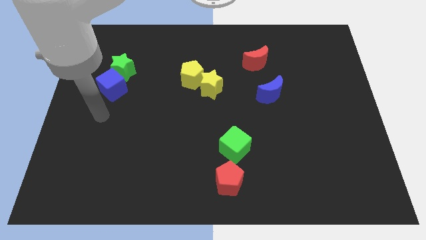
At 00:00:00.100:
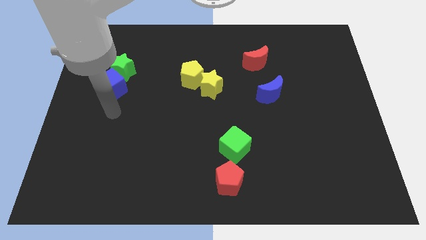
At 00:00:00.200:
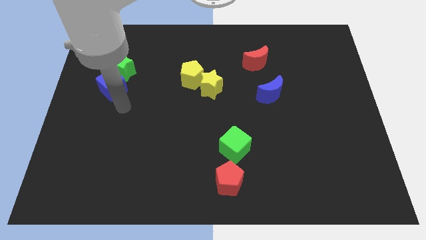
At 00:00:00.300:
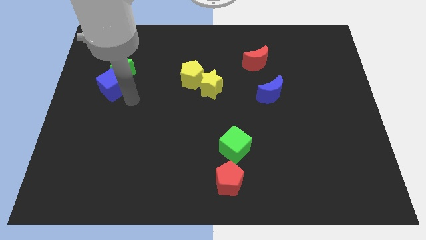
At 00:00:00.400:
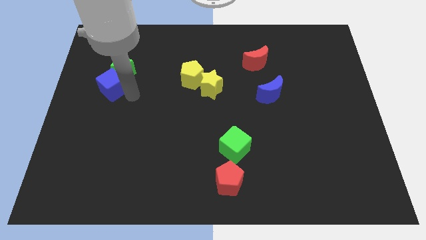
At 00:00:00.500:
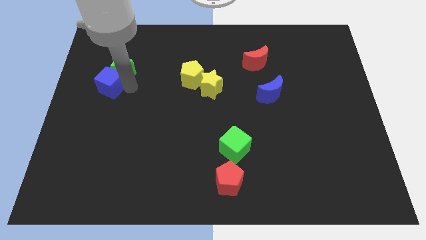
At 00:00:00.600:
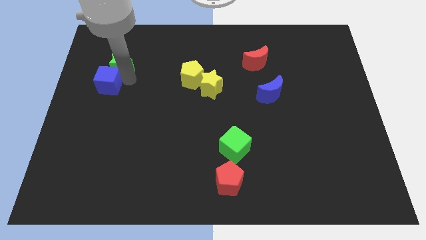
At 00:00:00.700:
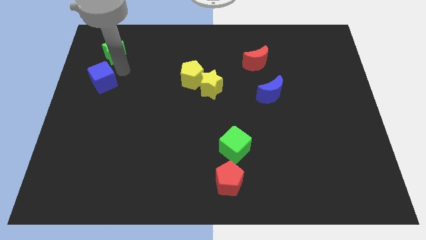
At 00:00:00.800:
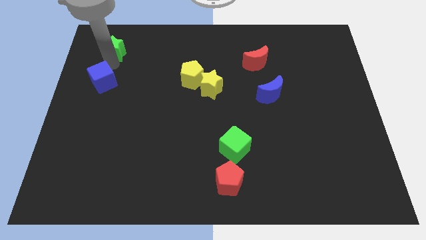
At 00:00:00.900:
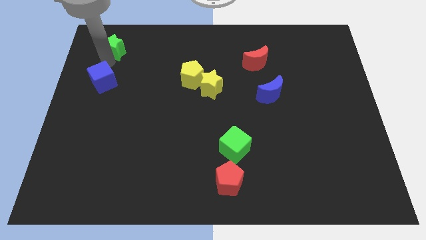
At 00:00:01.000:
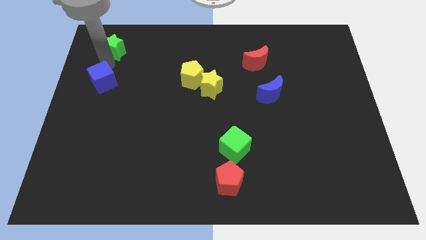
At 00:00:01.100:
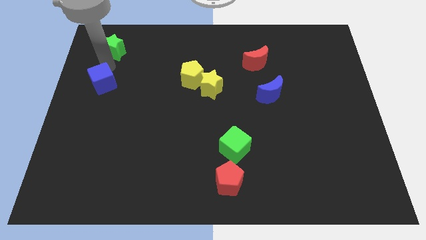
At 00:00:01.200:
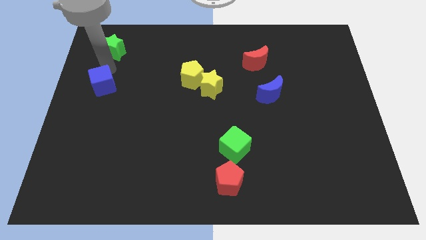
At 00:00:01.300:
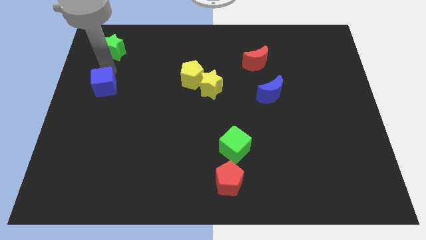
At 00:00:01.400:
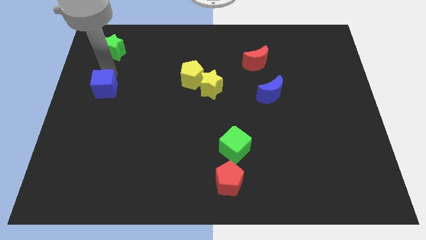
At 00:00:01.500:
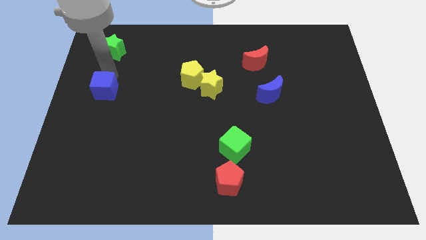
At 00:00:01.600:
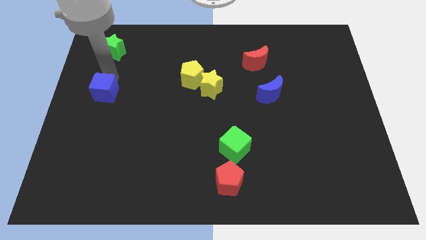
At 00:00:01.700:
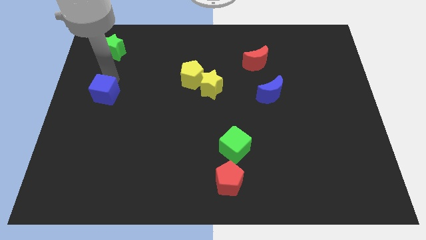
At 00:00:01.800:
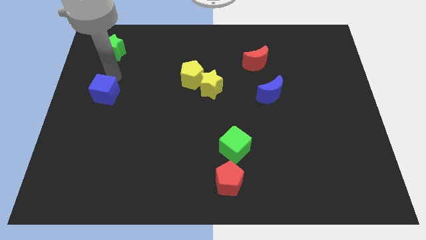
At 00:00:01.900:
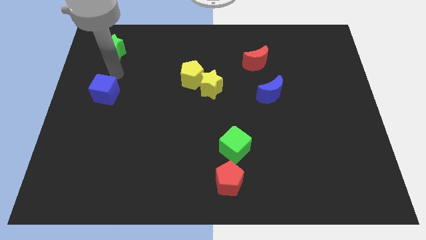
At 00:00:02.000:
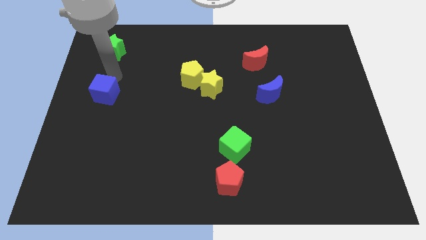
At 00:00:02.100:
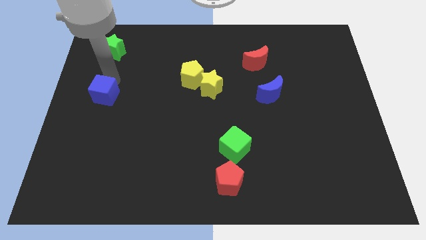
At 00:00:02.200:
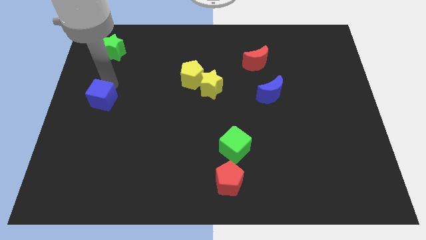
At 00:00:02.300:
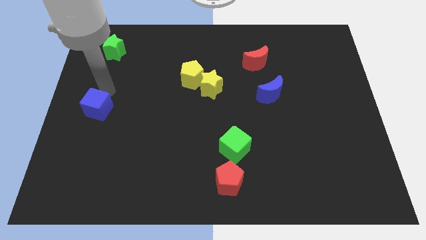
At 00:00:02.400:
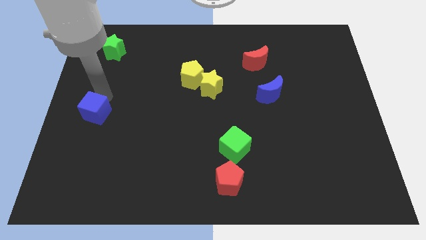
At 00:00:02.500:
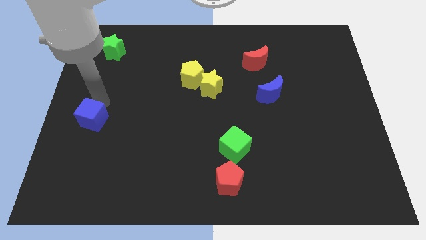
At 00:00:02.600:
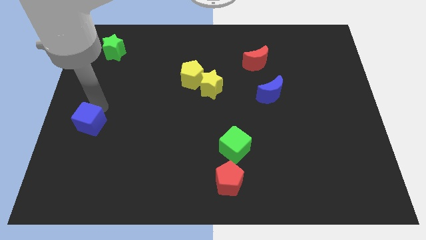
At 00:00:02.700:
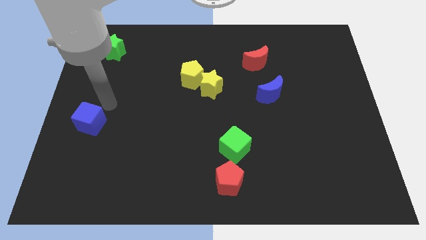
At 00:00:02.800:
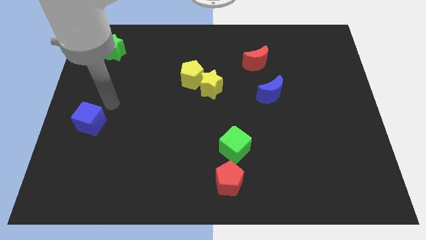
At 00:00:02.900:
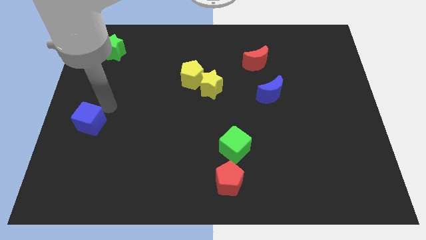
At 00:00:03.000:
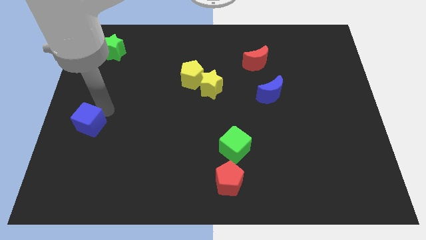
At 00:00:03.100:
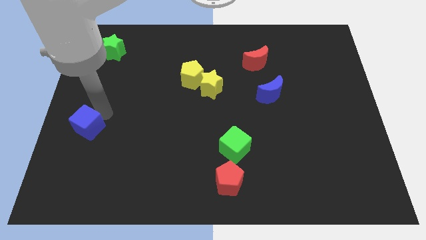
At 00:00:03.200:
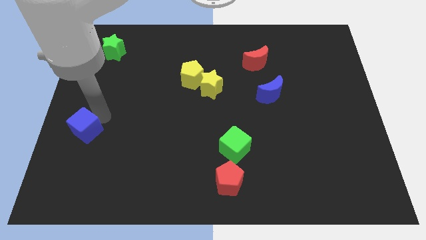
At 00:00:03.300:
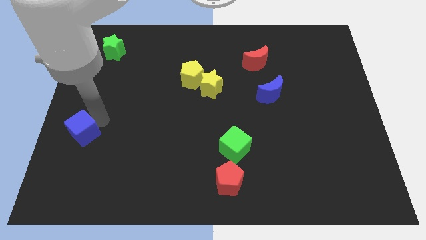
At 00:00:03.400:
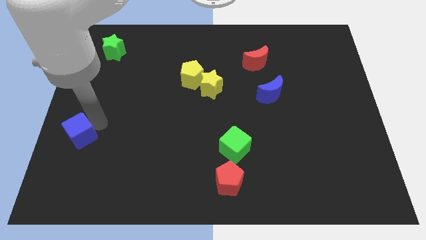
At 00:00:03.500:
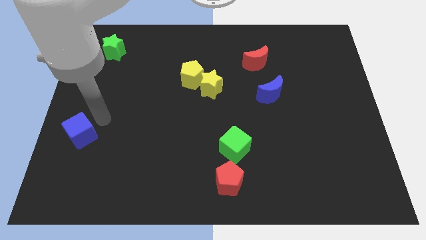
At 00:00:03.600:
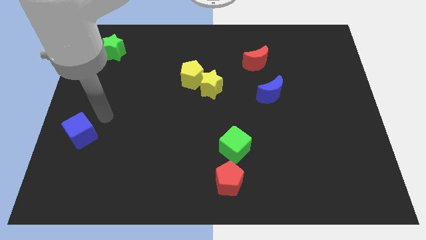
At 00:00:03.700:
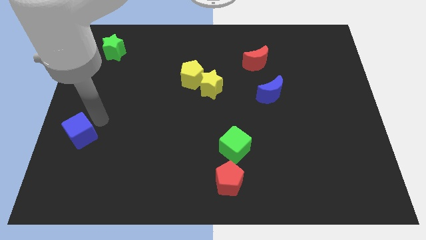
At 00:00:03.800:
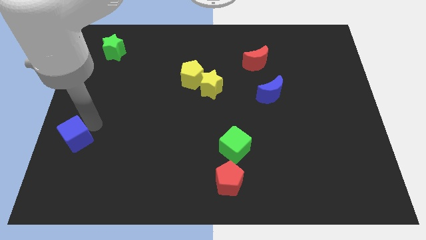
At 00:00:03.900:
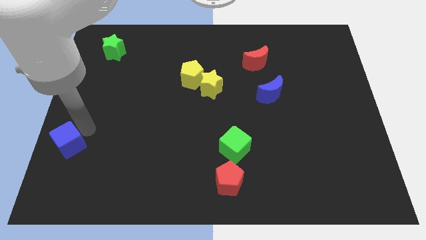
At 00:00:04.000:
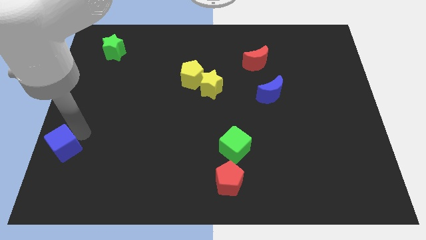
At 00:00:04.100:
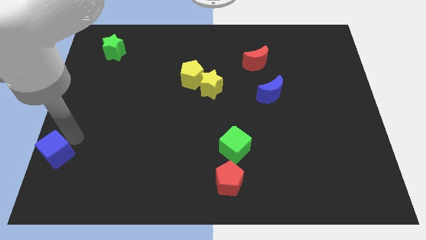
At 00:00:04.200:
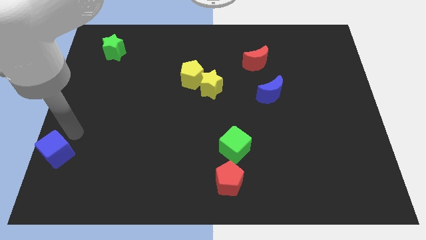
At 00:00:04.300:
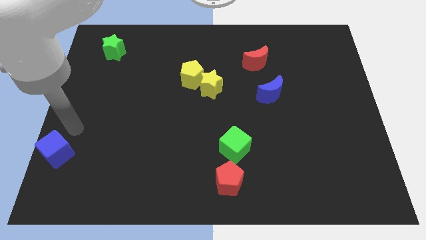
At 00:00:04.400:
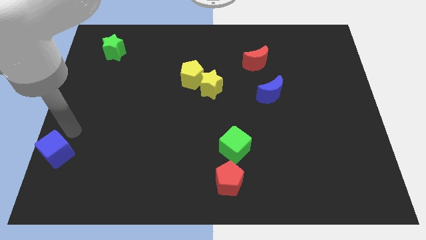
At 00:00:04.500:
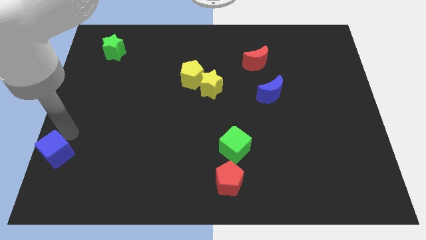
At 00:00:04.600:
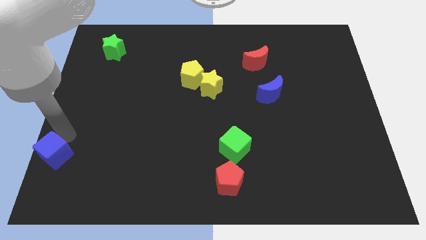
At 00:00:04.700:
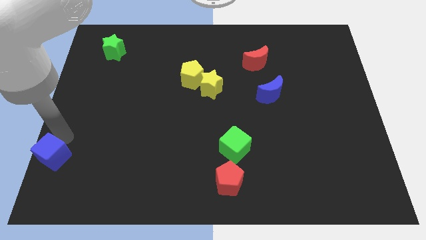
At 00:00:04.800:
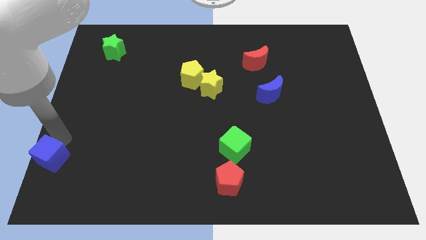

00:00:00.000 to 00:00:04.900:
push the blue cube to the bottom left corner

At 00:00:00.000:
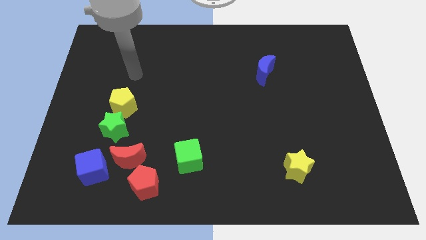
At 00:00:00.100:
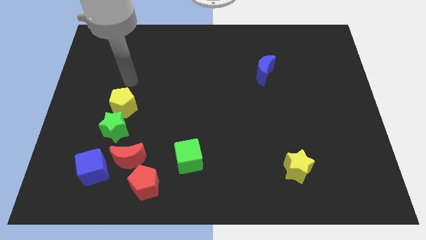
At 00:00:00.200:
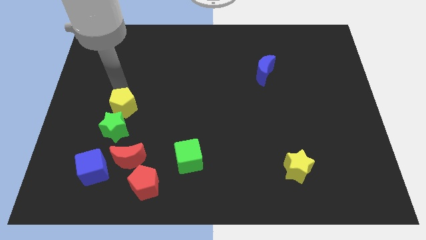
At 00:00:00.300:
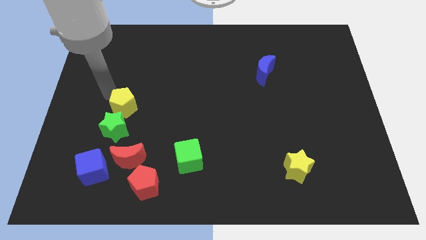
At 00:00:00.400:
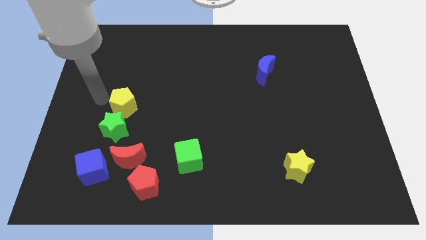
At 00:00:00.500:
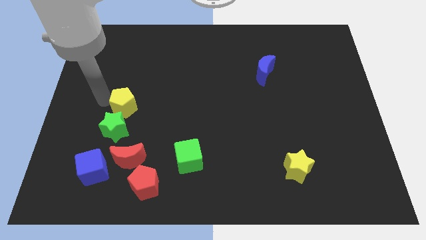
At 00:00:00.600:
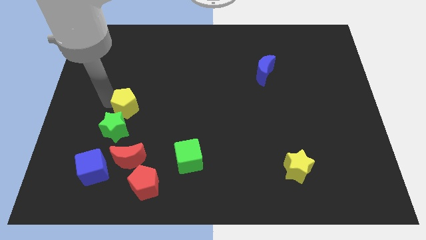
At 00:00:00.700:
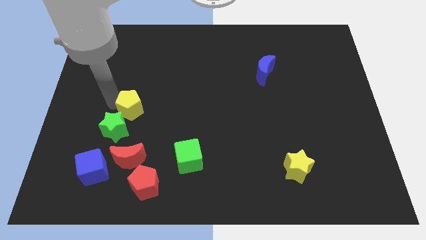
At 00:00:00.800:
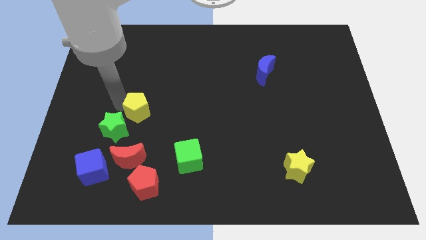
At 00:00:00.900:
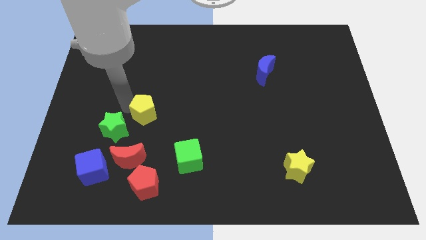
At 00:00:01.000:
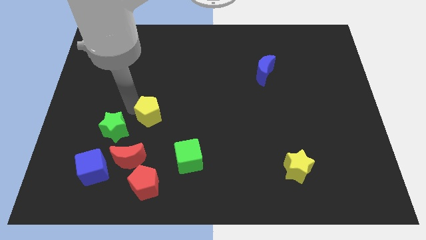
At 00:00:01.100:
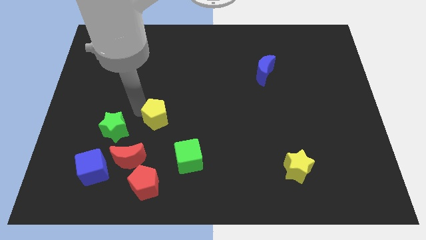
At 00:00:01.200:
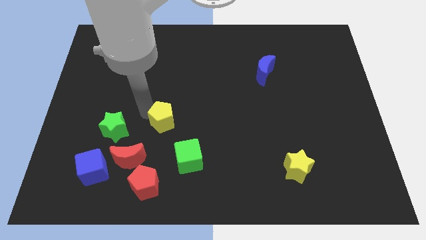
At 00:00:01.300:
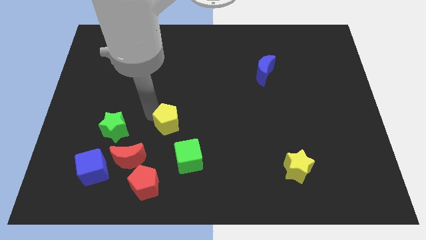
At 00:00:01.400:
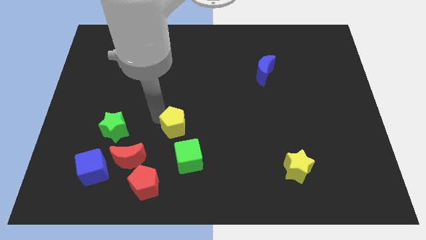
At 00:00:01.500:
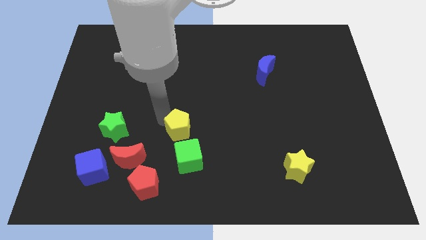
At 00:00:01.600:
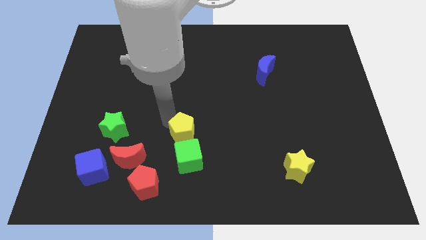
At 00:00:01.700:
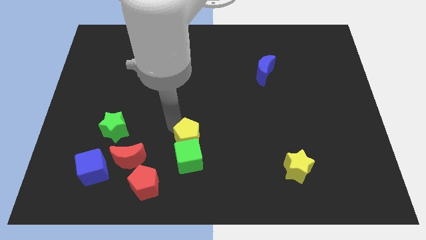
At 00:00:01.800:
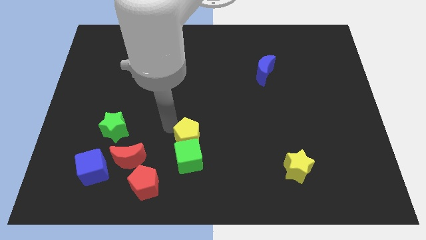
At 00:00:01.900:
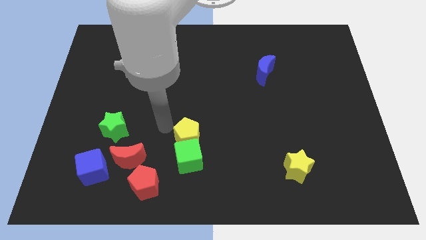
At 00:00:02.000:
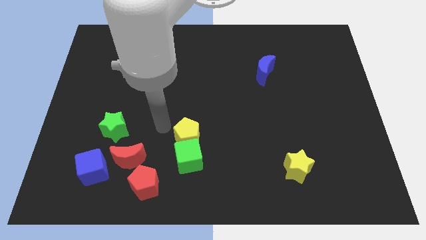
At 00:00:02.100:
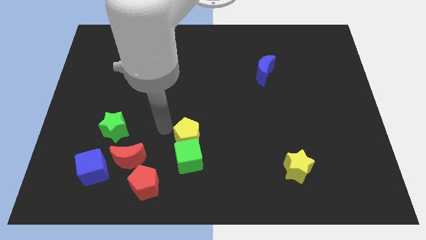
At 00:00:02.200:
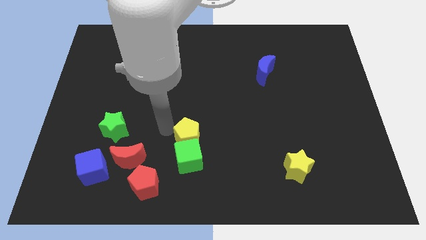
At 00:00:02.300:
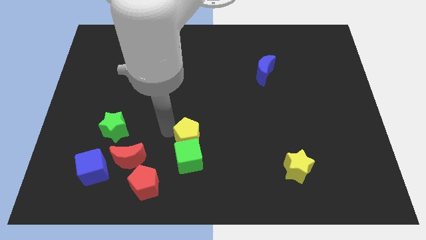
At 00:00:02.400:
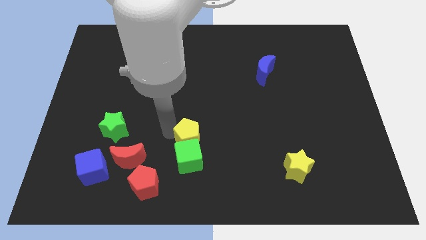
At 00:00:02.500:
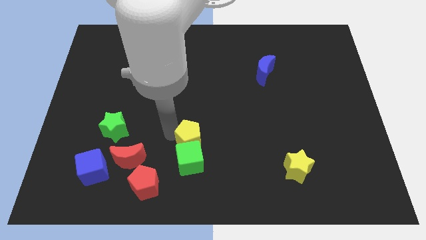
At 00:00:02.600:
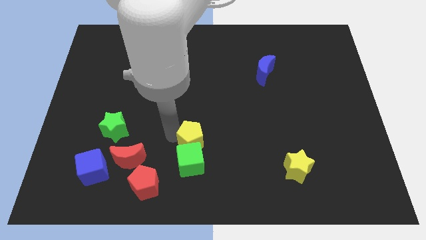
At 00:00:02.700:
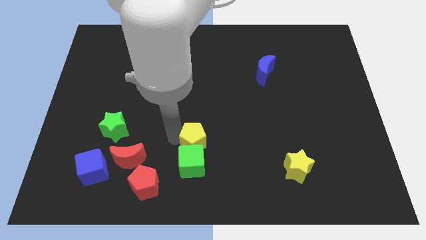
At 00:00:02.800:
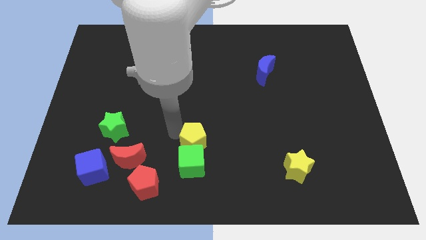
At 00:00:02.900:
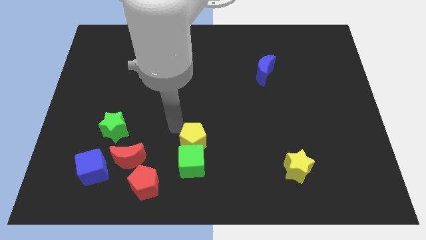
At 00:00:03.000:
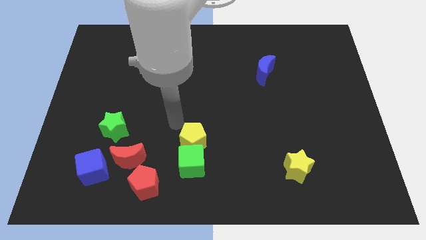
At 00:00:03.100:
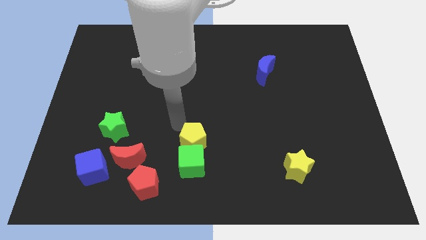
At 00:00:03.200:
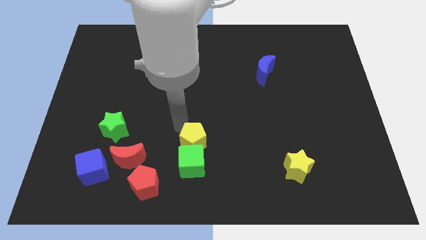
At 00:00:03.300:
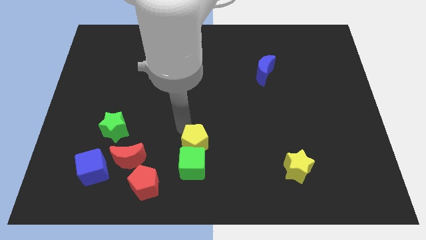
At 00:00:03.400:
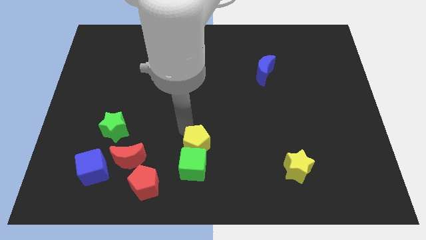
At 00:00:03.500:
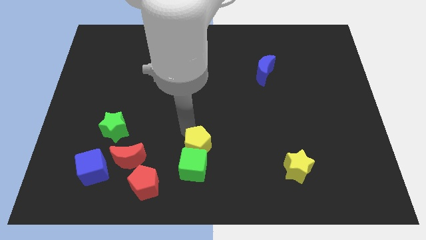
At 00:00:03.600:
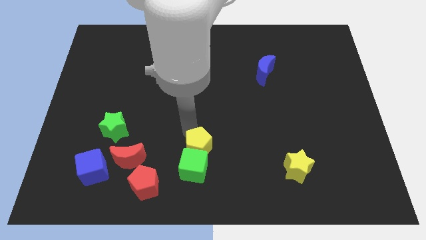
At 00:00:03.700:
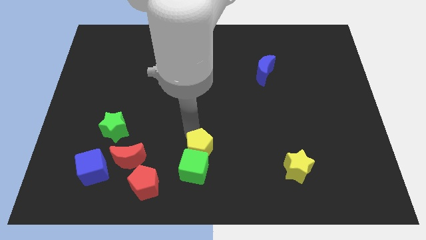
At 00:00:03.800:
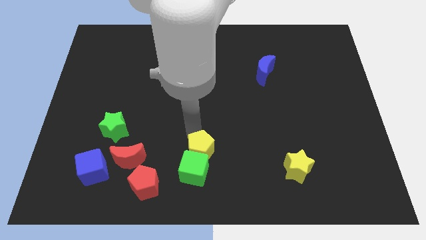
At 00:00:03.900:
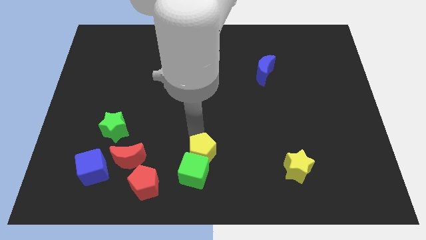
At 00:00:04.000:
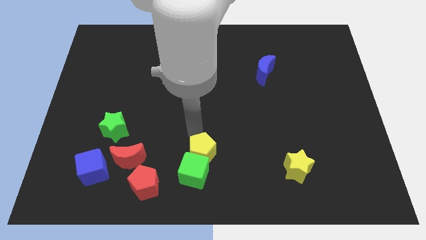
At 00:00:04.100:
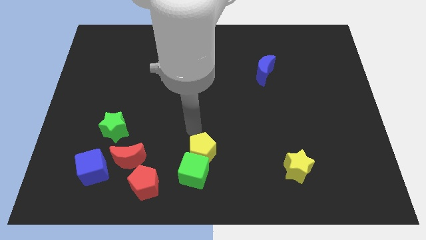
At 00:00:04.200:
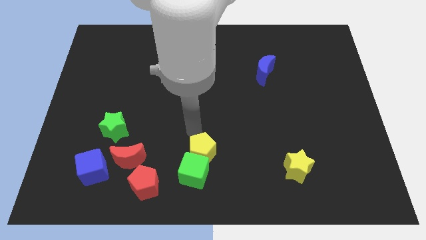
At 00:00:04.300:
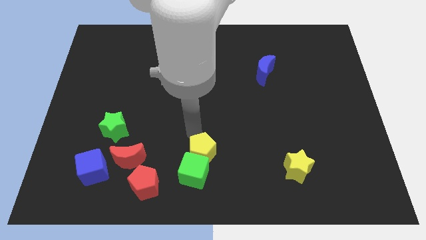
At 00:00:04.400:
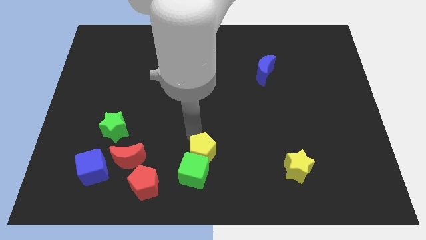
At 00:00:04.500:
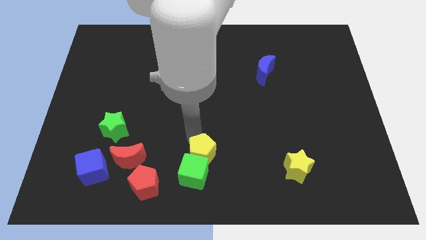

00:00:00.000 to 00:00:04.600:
put the yellow pentagon to the bottom
